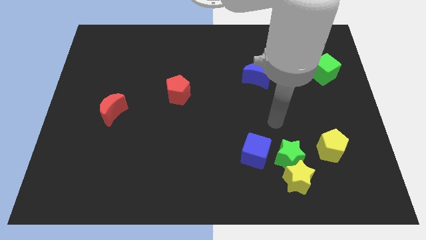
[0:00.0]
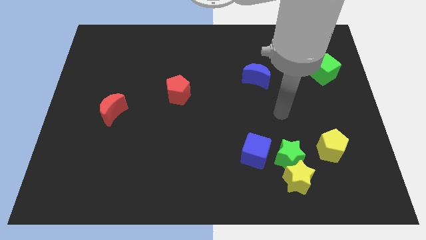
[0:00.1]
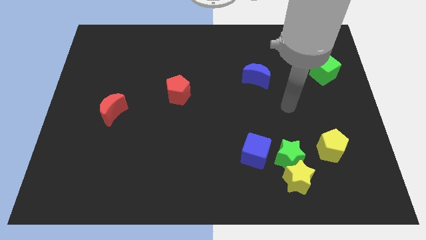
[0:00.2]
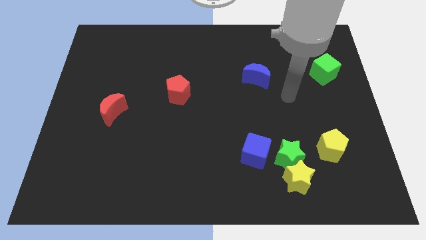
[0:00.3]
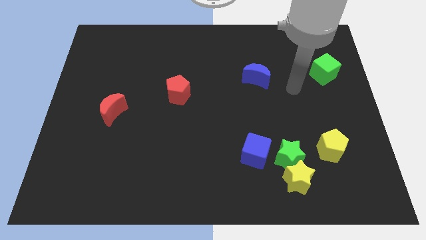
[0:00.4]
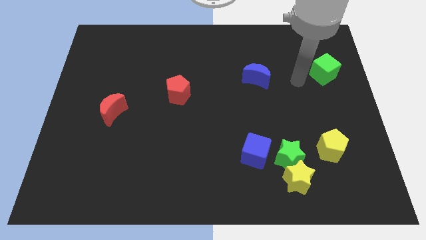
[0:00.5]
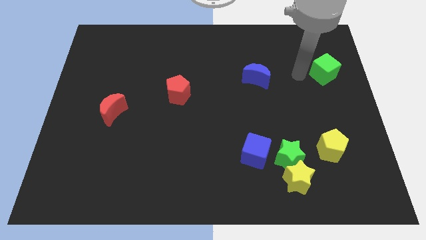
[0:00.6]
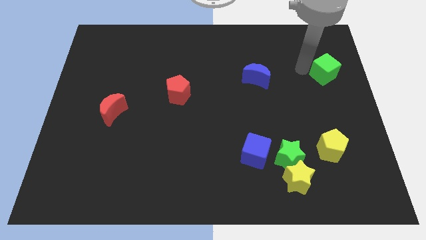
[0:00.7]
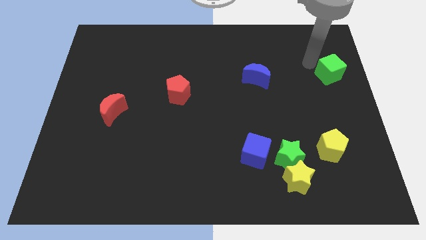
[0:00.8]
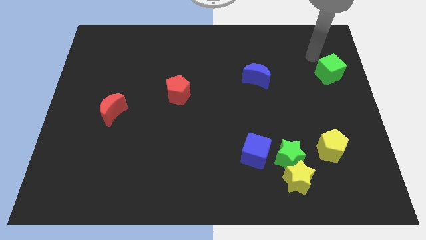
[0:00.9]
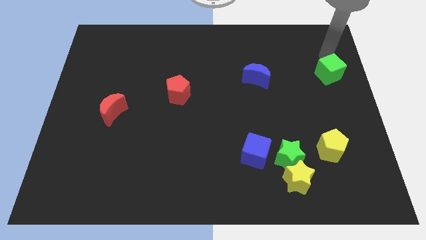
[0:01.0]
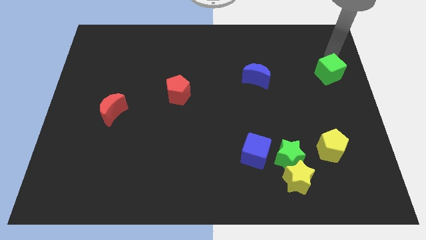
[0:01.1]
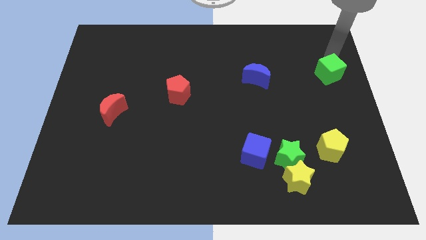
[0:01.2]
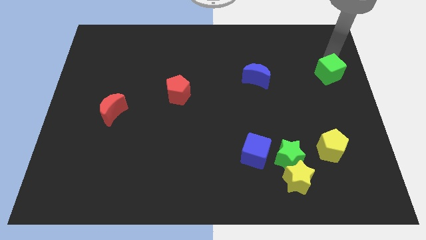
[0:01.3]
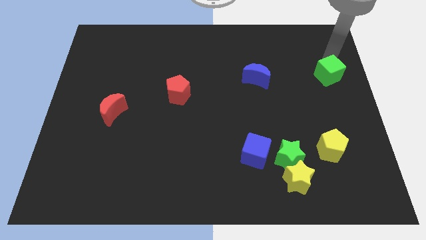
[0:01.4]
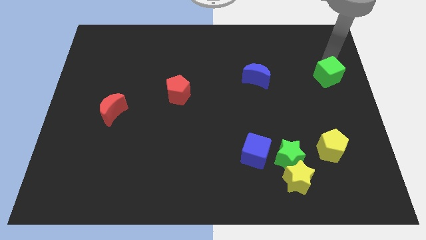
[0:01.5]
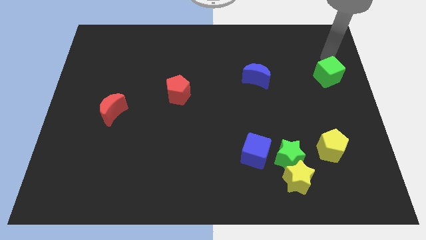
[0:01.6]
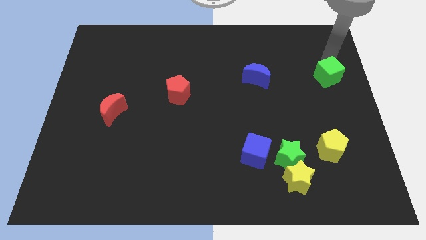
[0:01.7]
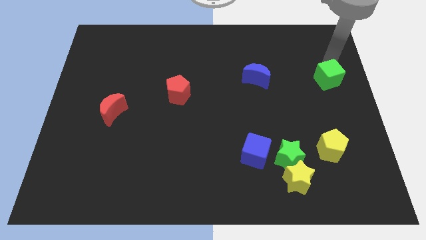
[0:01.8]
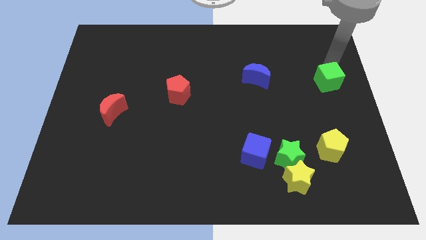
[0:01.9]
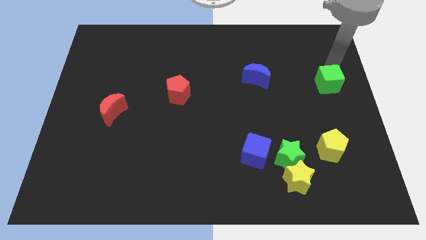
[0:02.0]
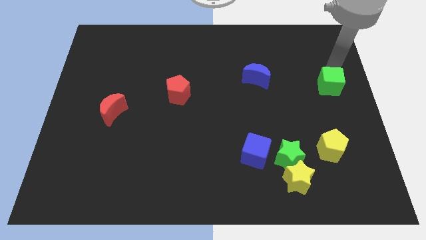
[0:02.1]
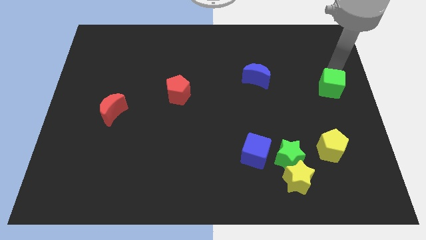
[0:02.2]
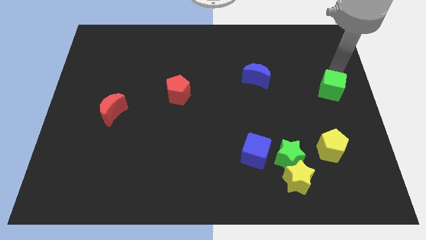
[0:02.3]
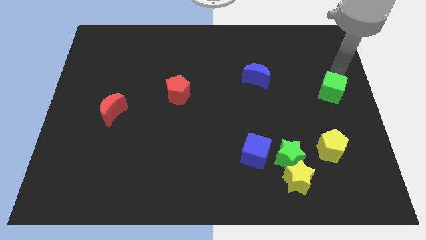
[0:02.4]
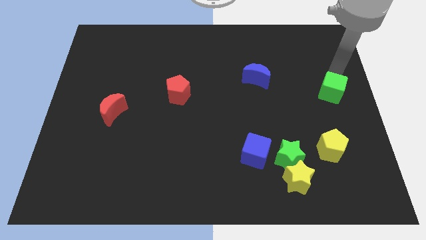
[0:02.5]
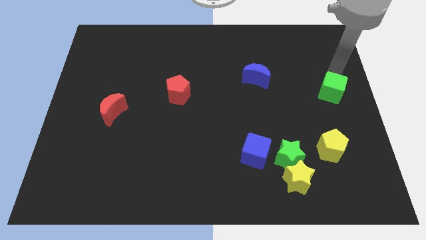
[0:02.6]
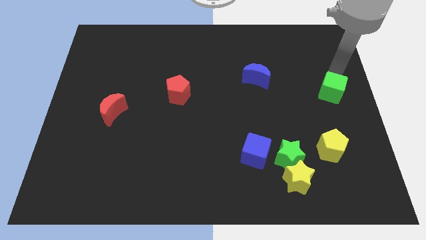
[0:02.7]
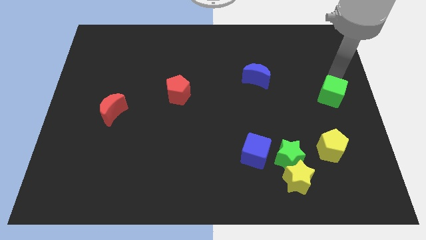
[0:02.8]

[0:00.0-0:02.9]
slightly slide the green cube downwards

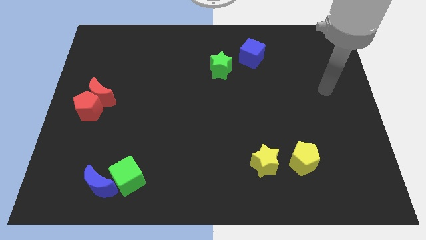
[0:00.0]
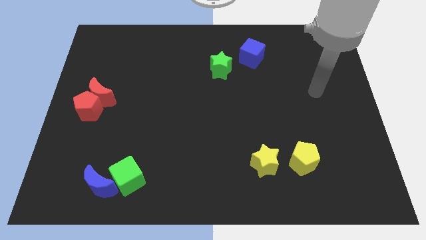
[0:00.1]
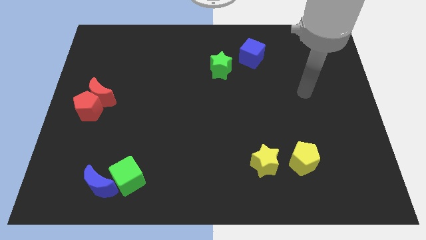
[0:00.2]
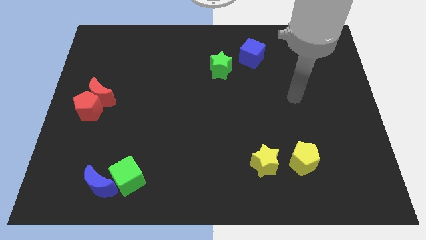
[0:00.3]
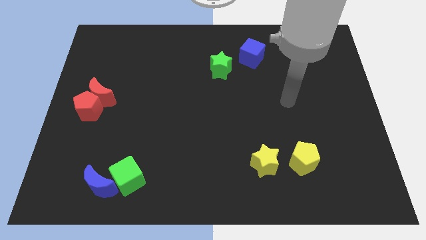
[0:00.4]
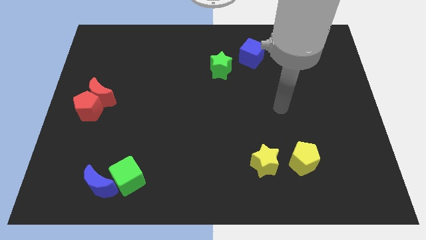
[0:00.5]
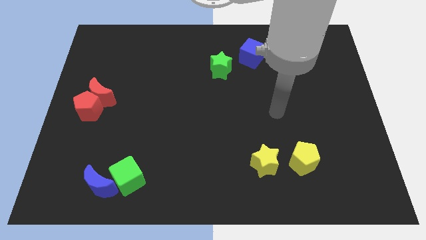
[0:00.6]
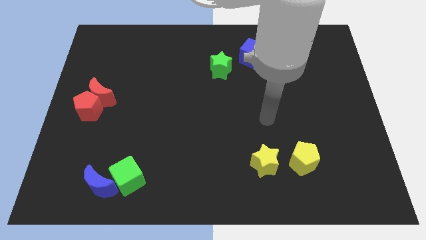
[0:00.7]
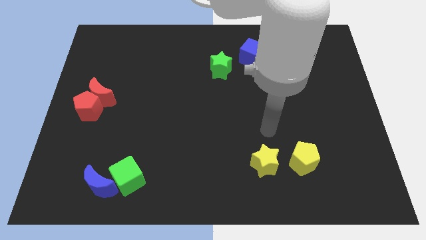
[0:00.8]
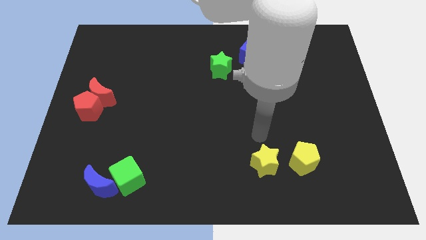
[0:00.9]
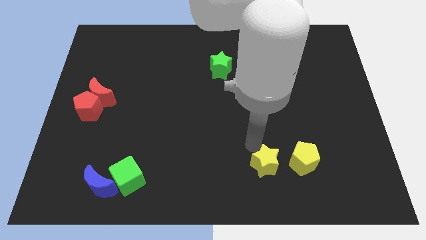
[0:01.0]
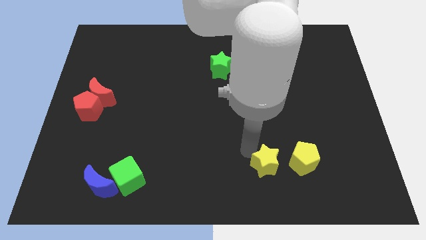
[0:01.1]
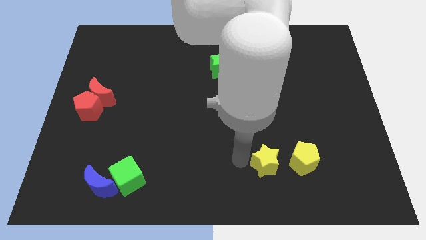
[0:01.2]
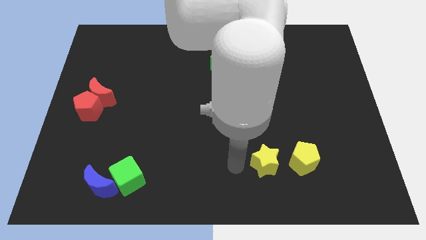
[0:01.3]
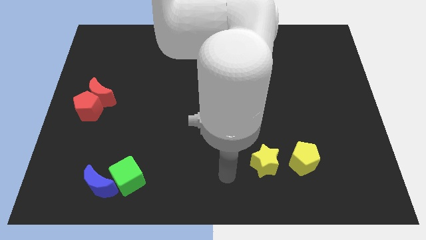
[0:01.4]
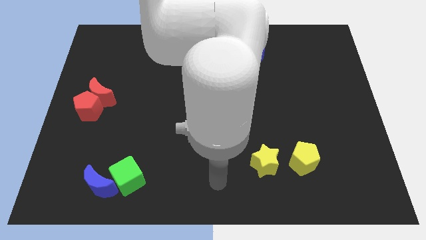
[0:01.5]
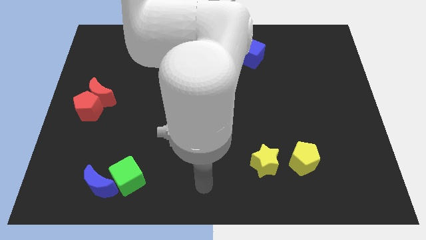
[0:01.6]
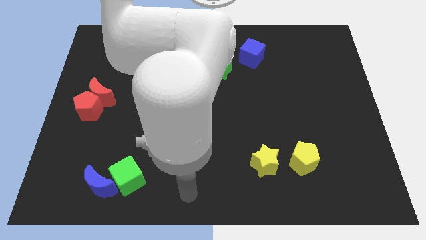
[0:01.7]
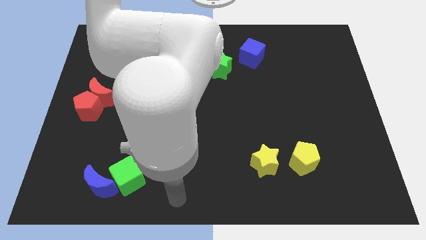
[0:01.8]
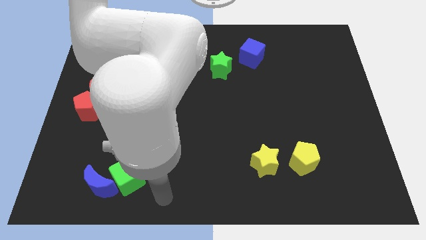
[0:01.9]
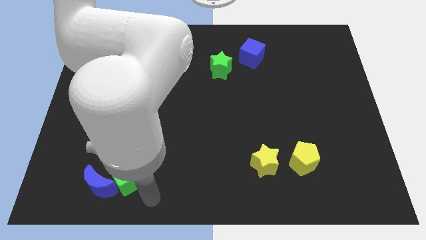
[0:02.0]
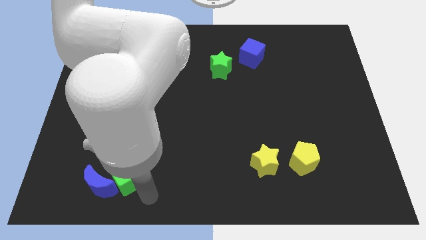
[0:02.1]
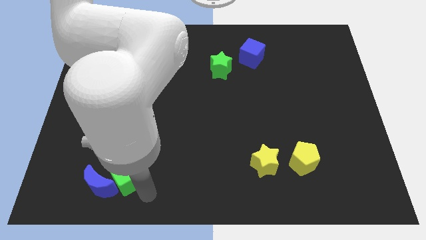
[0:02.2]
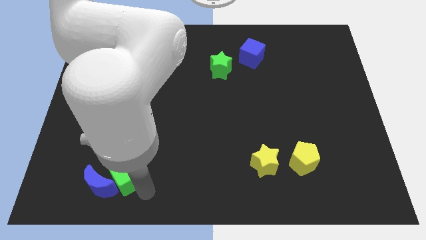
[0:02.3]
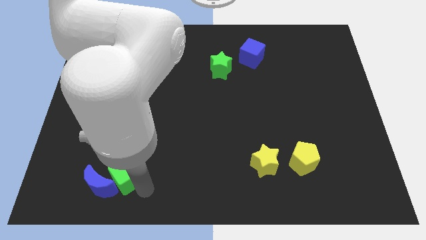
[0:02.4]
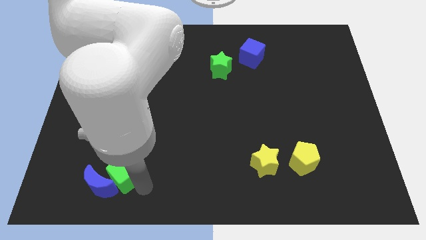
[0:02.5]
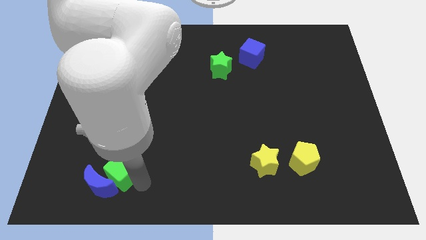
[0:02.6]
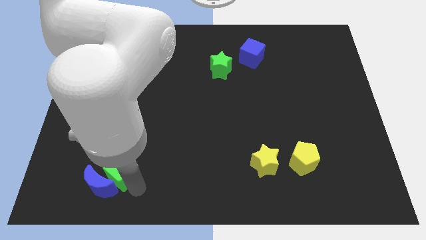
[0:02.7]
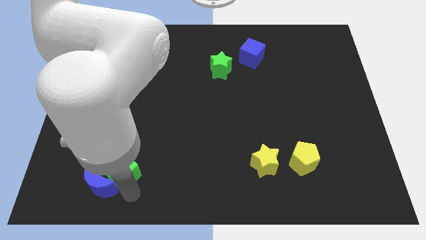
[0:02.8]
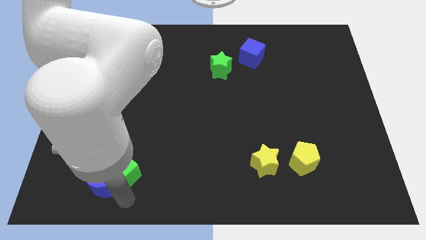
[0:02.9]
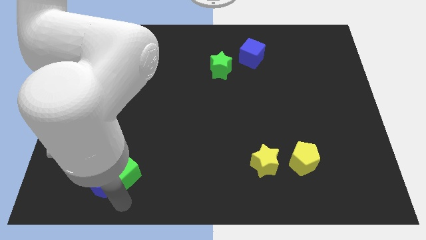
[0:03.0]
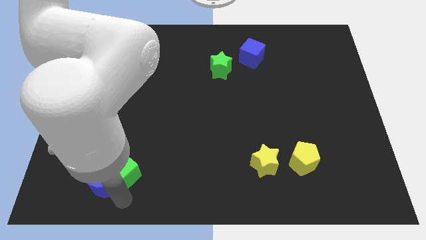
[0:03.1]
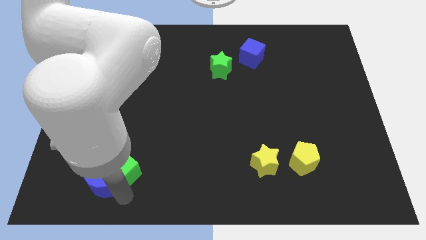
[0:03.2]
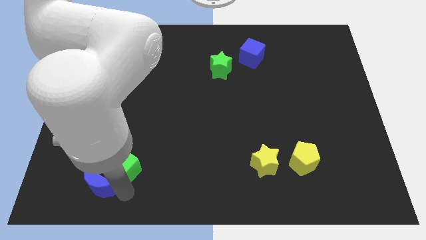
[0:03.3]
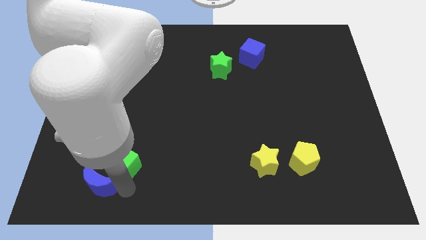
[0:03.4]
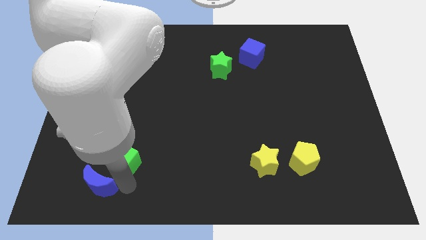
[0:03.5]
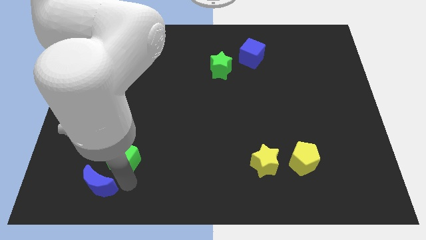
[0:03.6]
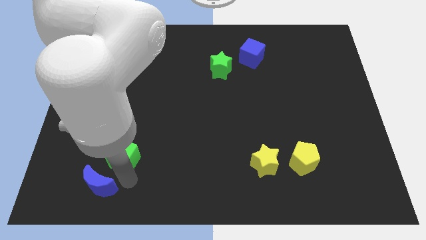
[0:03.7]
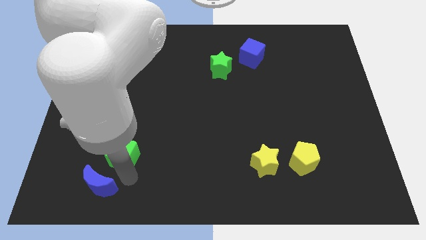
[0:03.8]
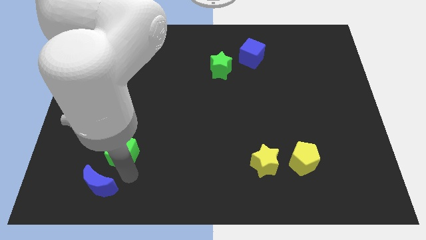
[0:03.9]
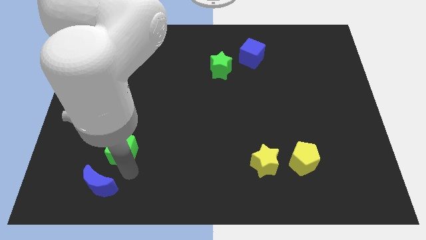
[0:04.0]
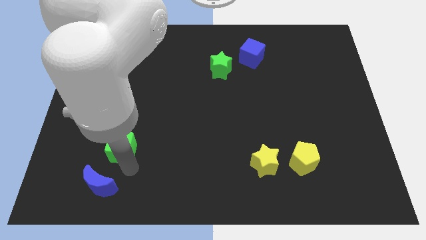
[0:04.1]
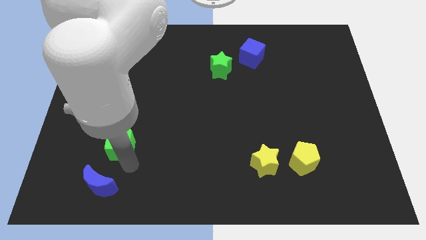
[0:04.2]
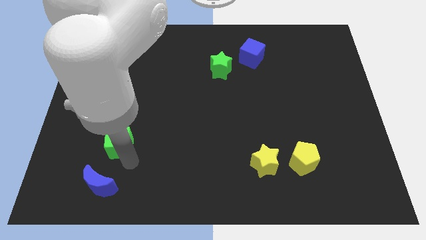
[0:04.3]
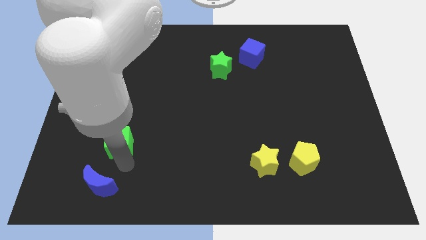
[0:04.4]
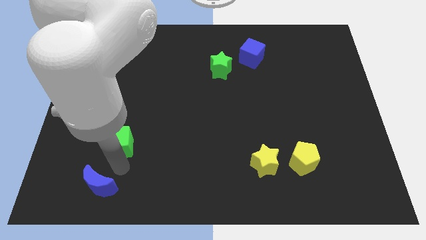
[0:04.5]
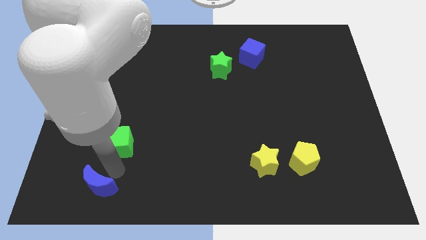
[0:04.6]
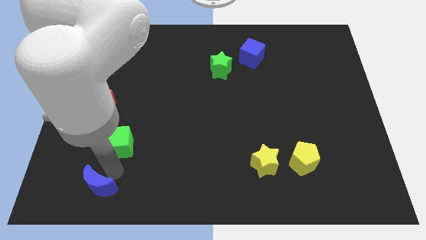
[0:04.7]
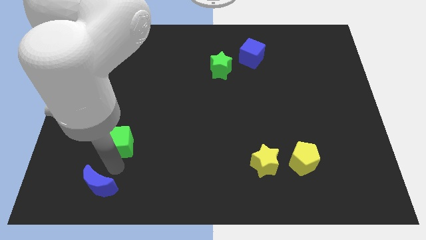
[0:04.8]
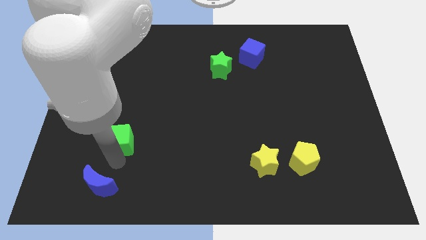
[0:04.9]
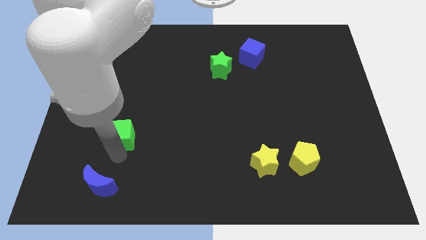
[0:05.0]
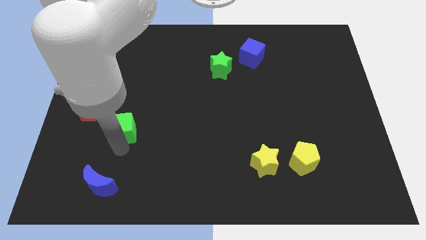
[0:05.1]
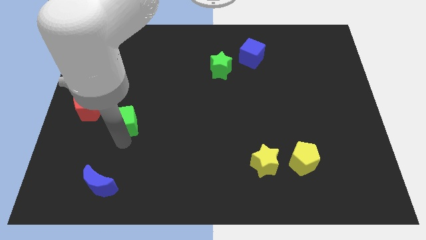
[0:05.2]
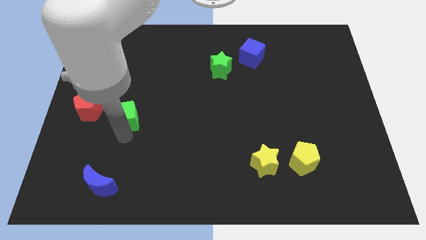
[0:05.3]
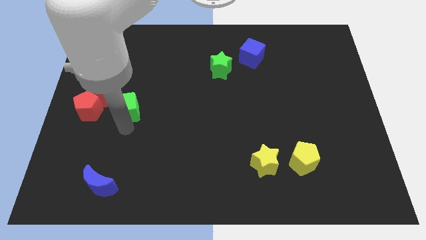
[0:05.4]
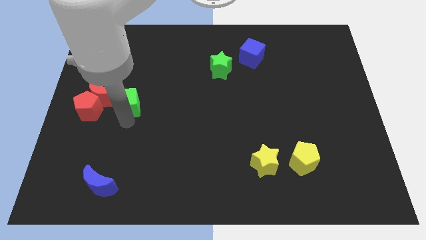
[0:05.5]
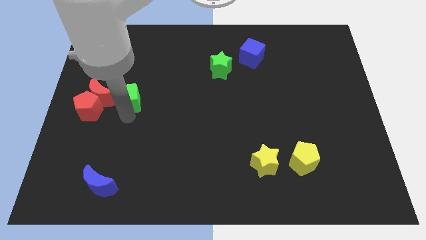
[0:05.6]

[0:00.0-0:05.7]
push the green cube upwards
